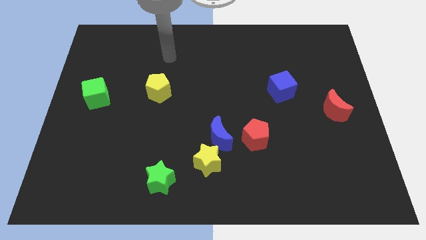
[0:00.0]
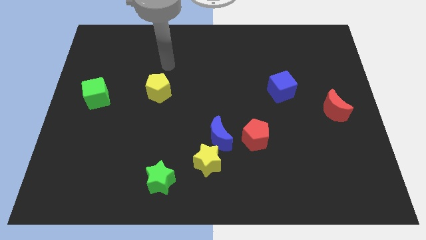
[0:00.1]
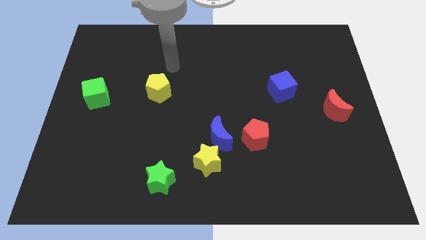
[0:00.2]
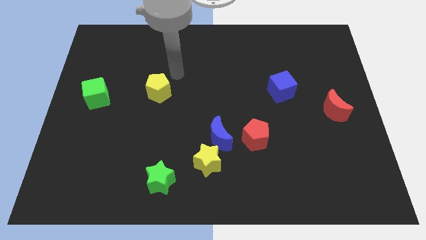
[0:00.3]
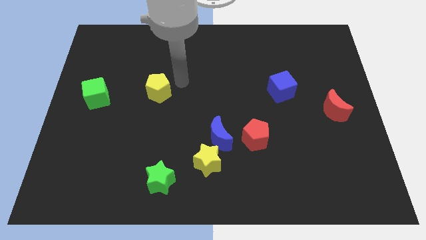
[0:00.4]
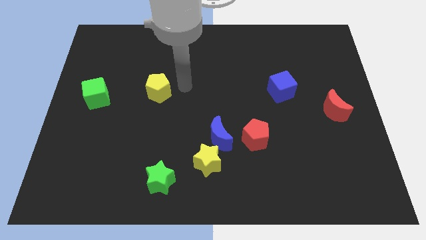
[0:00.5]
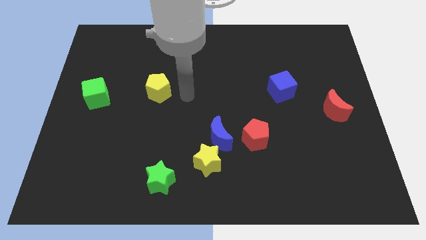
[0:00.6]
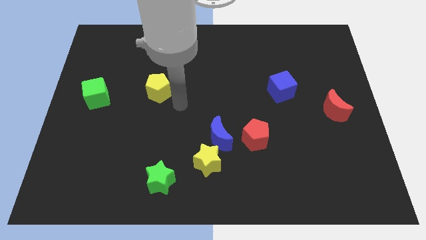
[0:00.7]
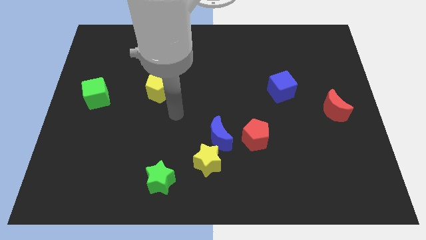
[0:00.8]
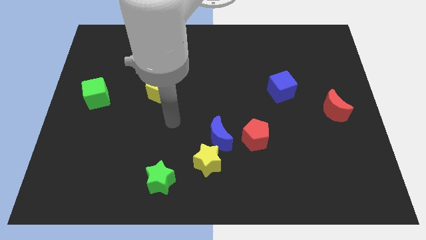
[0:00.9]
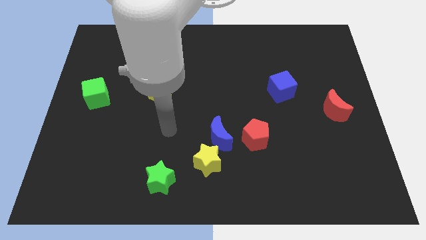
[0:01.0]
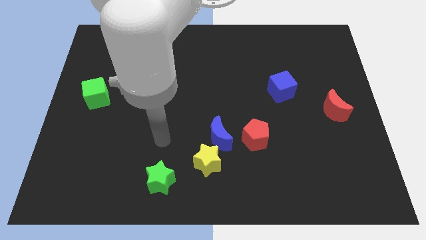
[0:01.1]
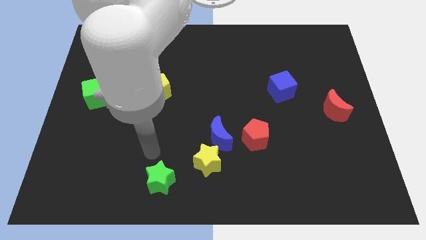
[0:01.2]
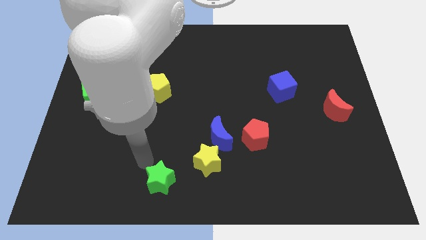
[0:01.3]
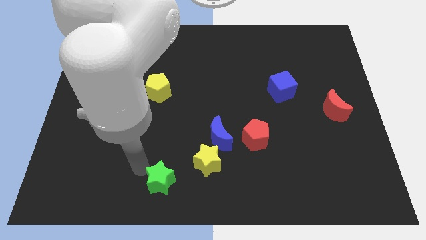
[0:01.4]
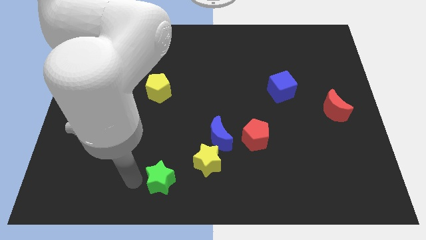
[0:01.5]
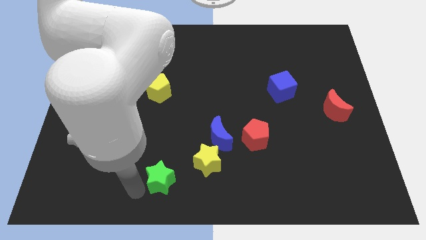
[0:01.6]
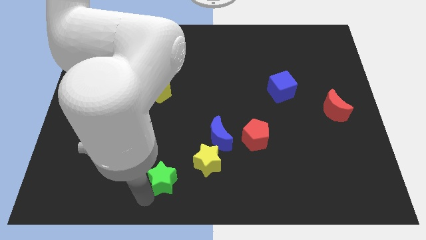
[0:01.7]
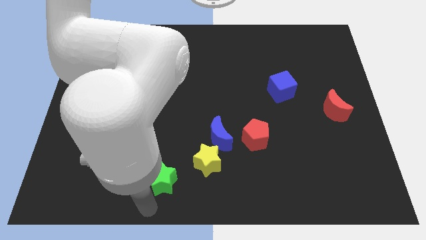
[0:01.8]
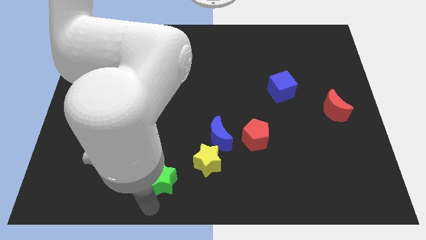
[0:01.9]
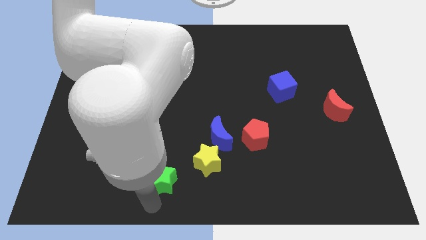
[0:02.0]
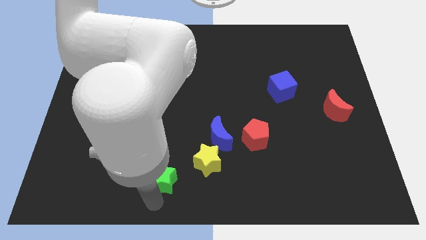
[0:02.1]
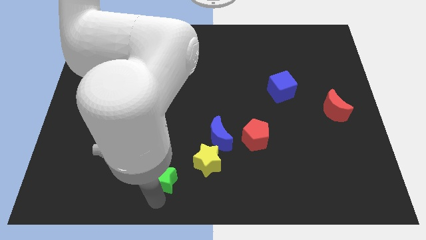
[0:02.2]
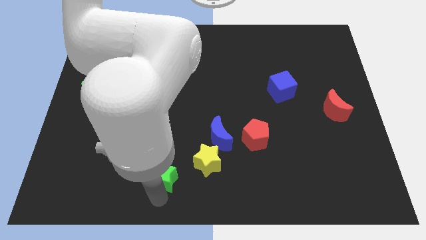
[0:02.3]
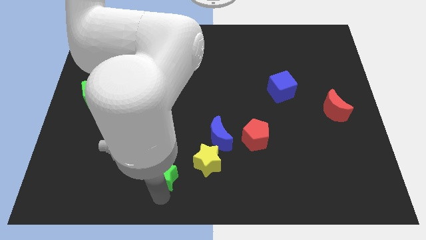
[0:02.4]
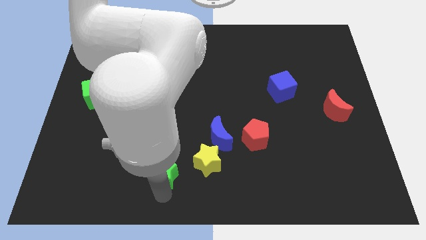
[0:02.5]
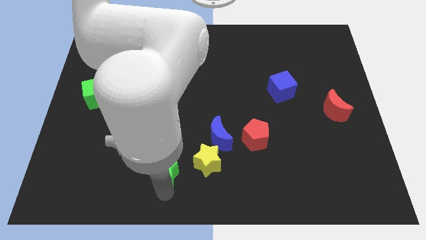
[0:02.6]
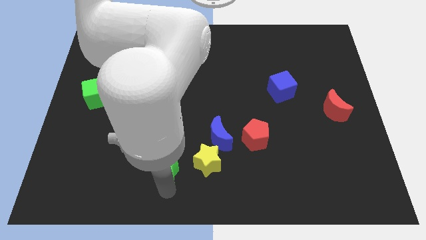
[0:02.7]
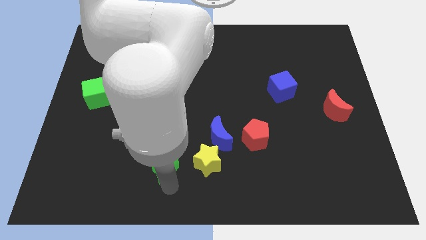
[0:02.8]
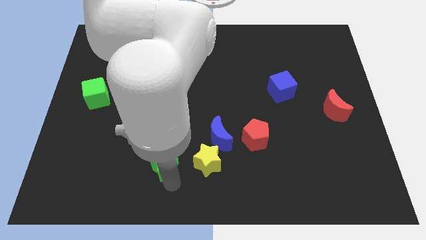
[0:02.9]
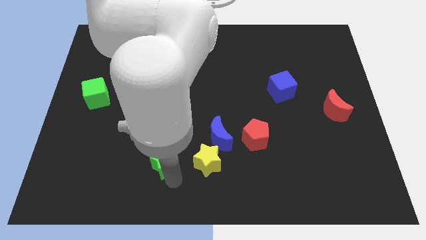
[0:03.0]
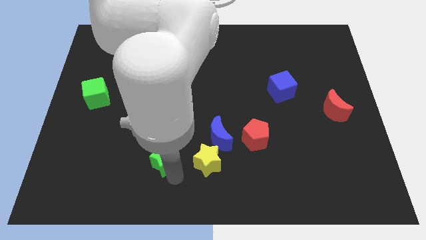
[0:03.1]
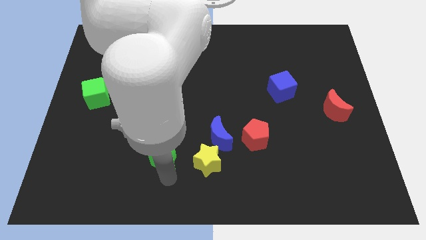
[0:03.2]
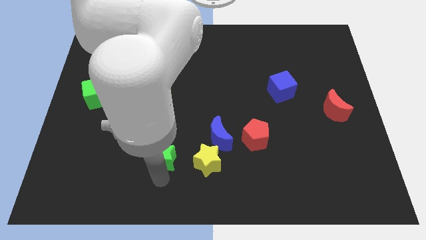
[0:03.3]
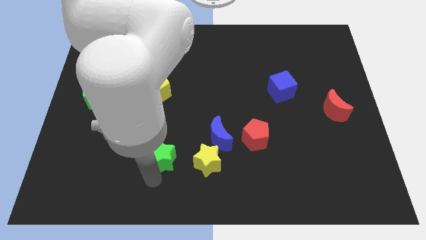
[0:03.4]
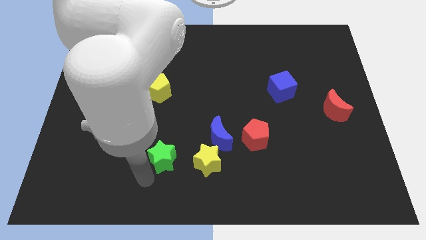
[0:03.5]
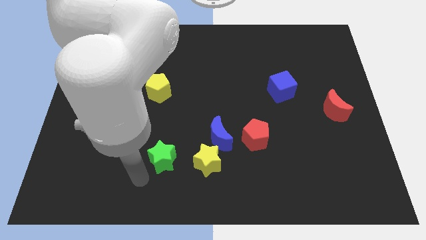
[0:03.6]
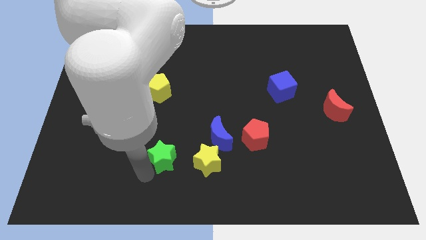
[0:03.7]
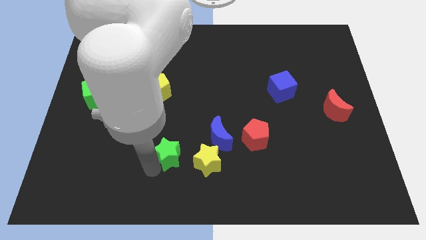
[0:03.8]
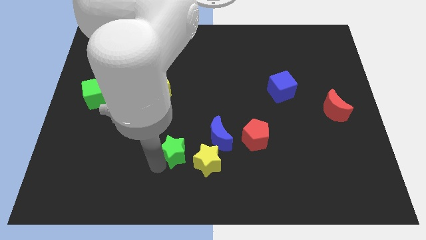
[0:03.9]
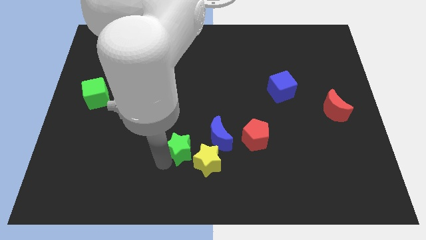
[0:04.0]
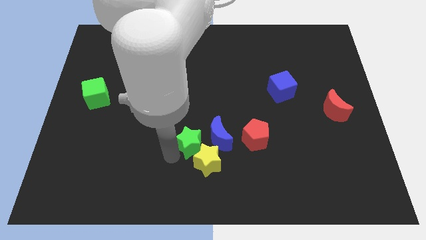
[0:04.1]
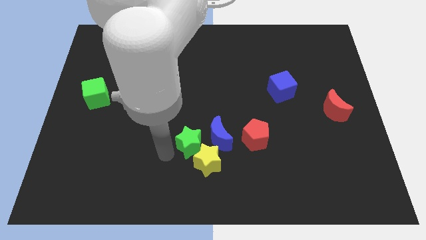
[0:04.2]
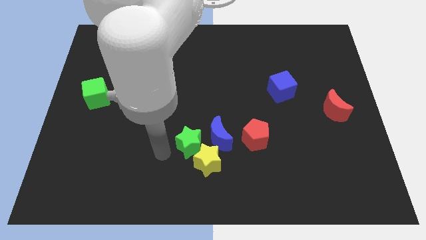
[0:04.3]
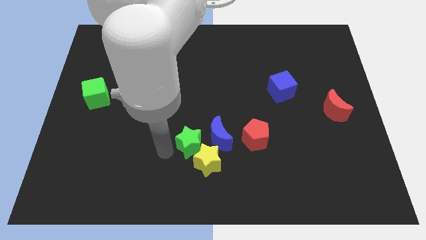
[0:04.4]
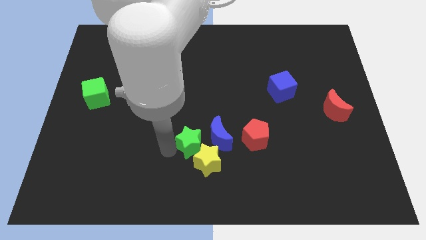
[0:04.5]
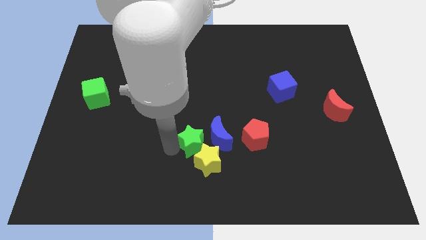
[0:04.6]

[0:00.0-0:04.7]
push the green star close to the blue moon

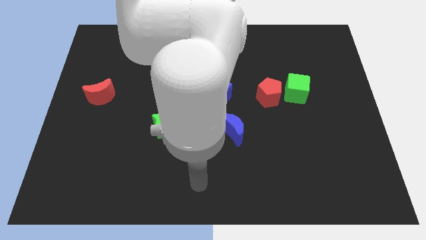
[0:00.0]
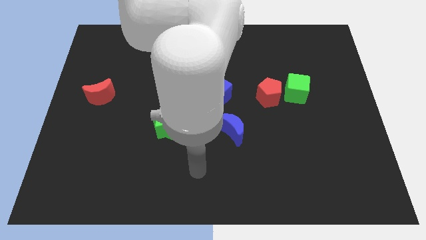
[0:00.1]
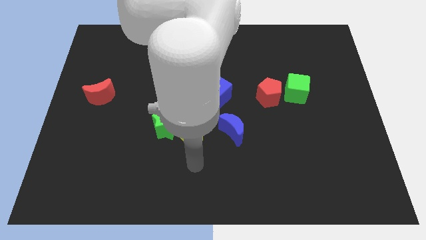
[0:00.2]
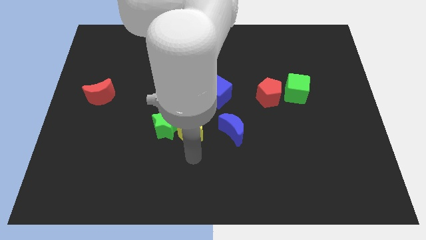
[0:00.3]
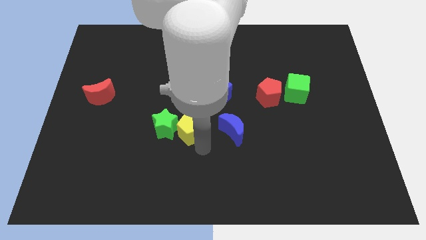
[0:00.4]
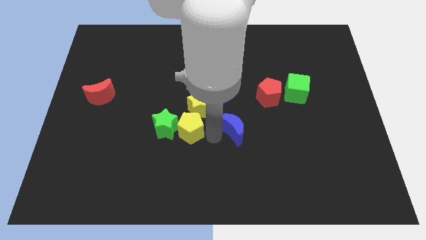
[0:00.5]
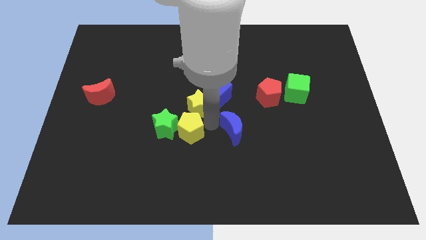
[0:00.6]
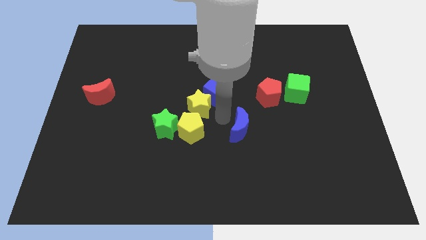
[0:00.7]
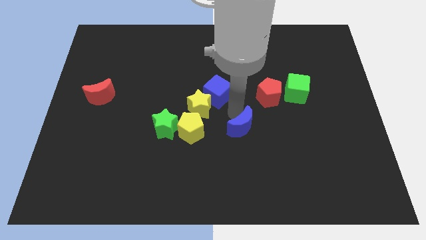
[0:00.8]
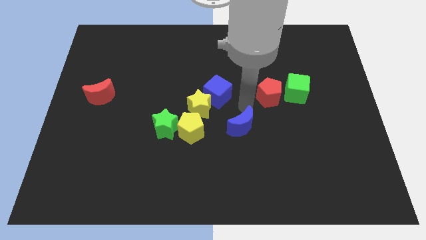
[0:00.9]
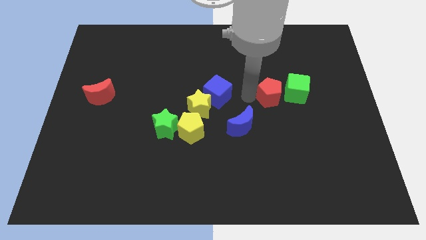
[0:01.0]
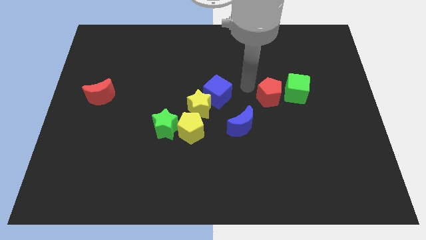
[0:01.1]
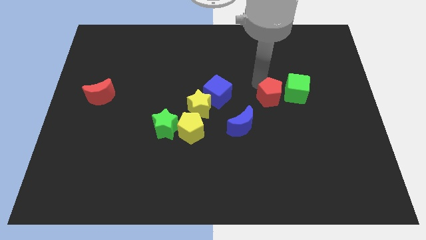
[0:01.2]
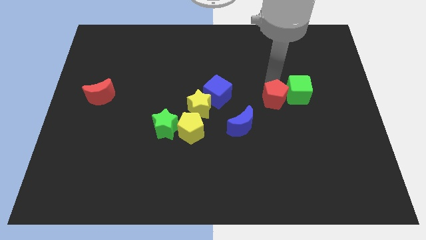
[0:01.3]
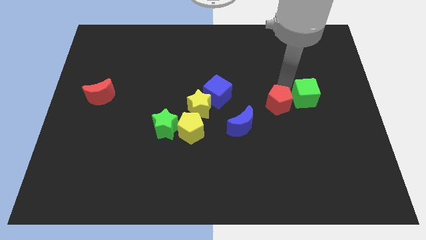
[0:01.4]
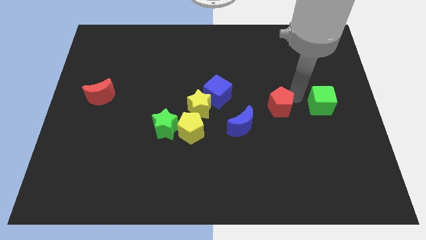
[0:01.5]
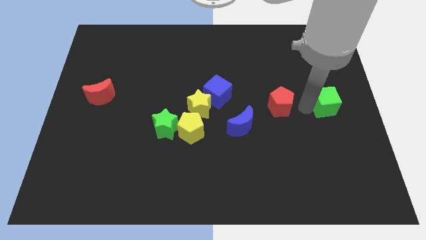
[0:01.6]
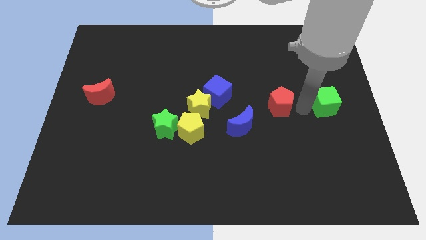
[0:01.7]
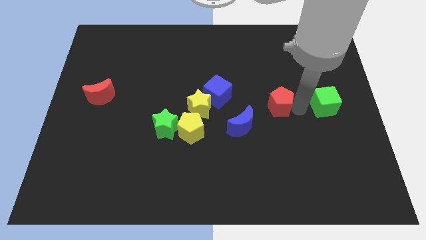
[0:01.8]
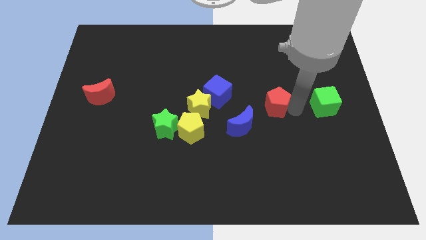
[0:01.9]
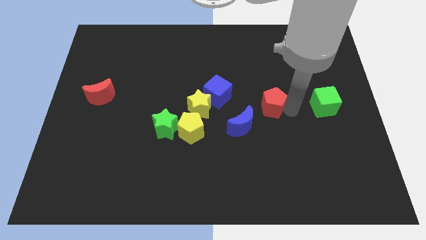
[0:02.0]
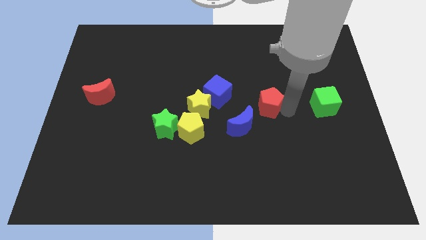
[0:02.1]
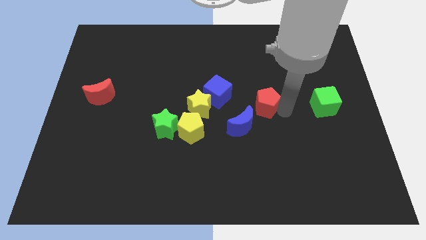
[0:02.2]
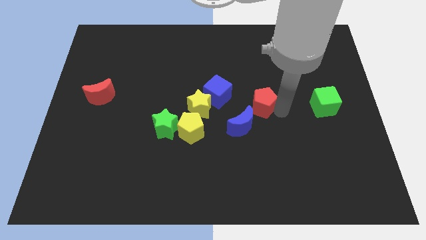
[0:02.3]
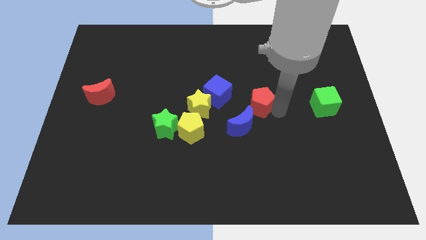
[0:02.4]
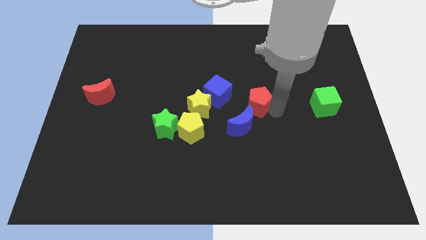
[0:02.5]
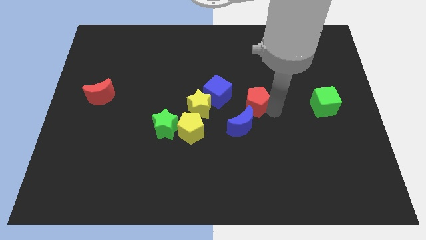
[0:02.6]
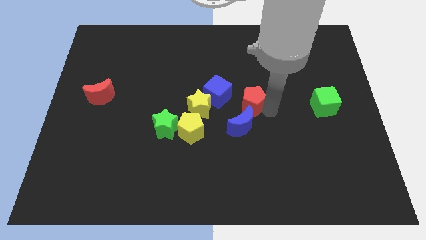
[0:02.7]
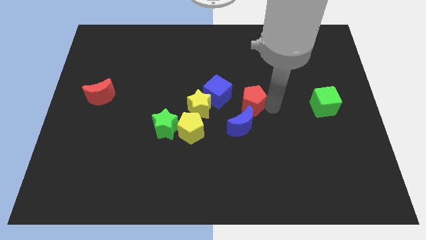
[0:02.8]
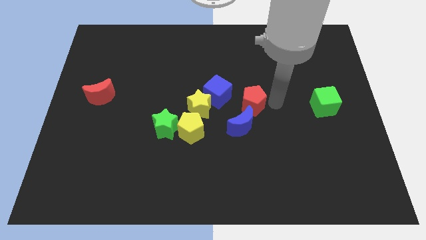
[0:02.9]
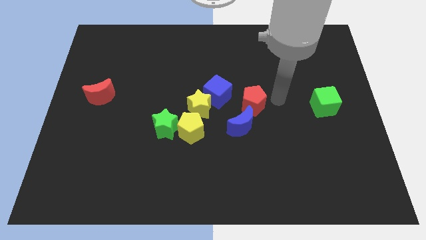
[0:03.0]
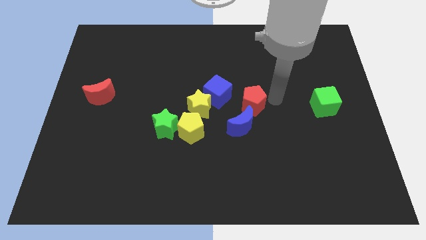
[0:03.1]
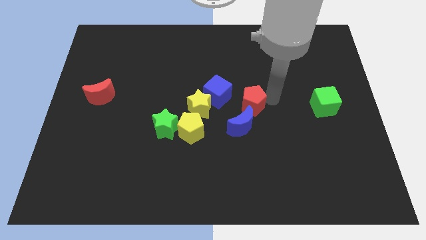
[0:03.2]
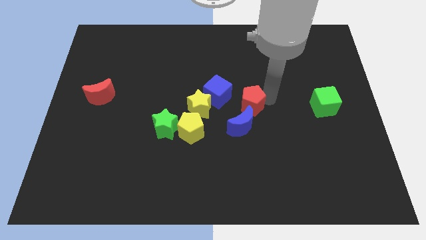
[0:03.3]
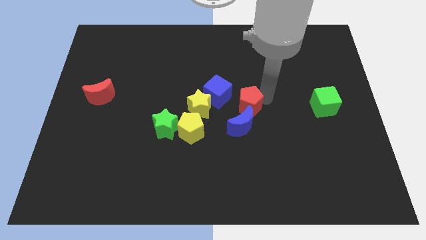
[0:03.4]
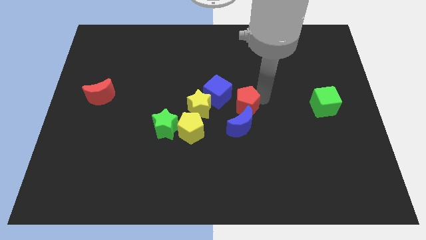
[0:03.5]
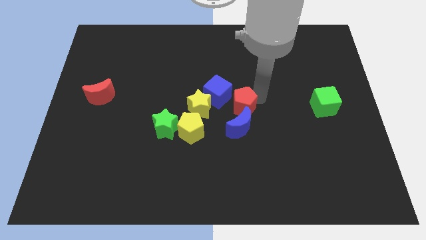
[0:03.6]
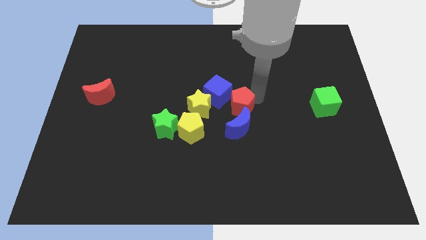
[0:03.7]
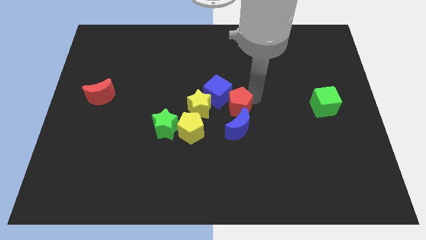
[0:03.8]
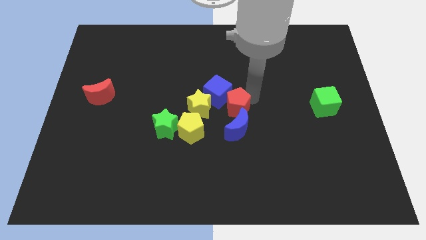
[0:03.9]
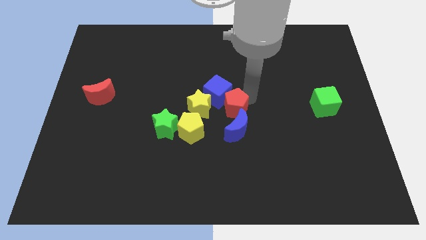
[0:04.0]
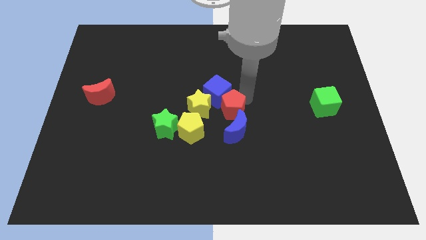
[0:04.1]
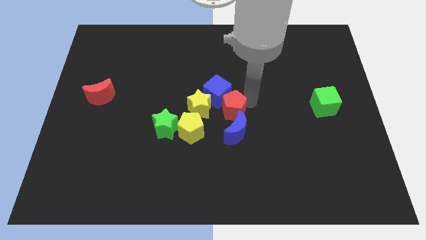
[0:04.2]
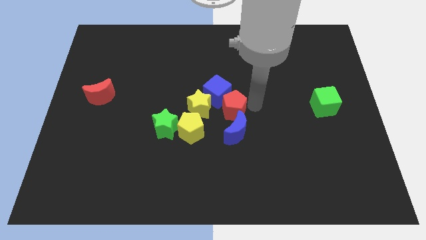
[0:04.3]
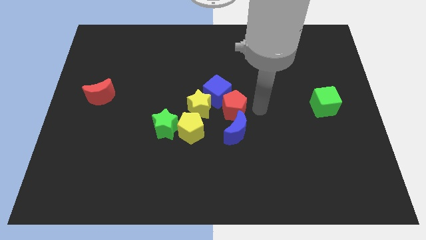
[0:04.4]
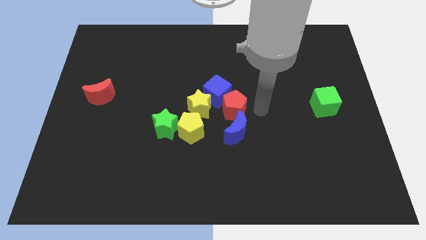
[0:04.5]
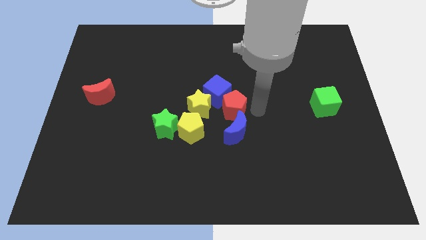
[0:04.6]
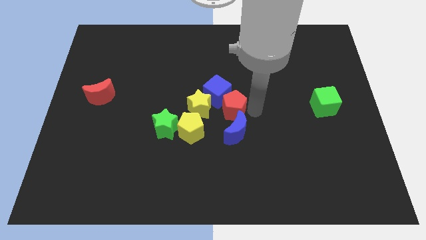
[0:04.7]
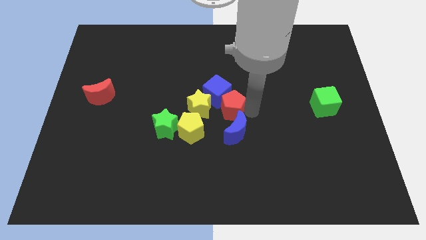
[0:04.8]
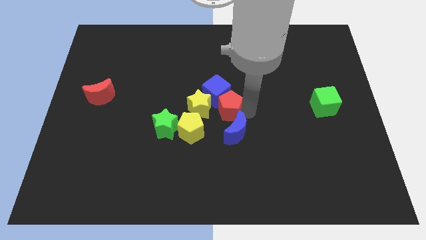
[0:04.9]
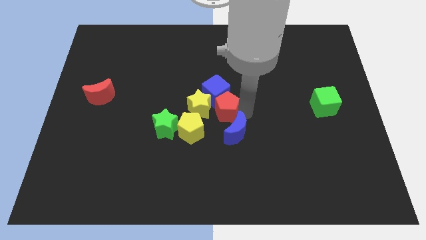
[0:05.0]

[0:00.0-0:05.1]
put the red pentagon next to the yellow star
